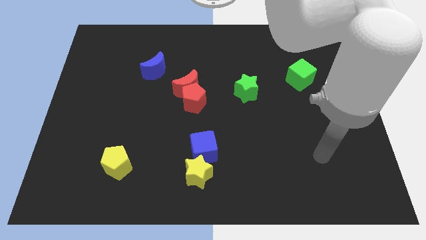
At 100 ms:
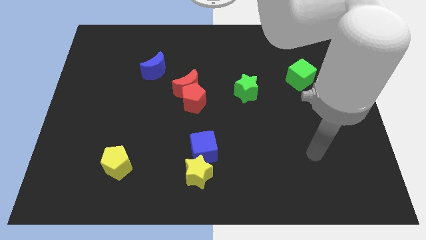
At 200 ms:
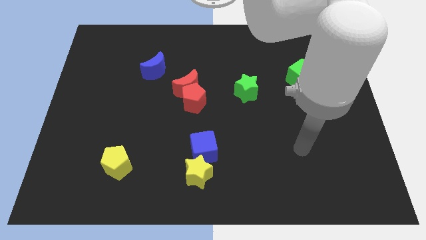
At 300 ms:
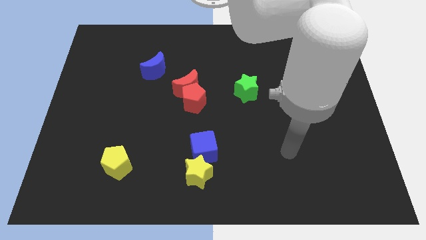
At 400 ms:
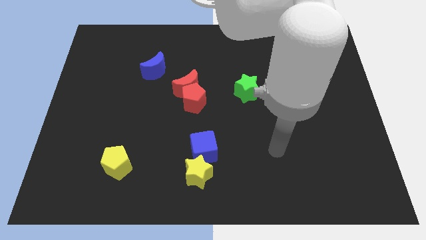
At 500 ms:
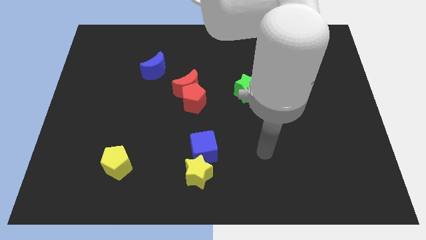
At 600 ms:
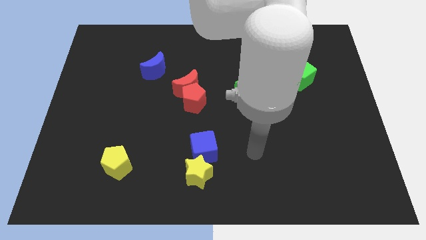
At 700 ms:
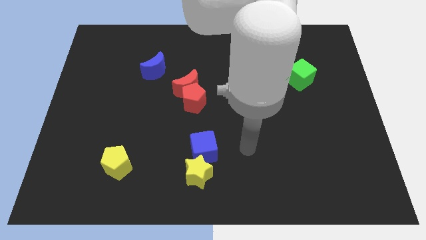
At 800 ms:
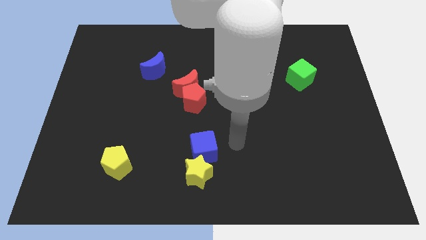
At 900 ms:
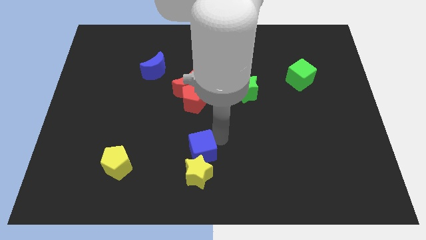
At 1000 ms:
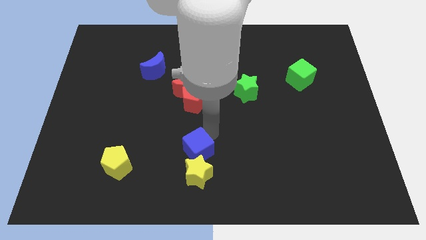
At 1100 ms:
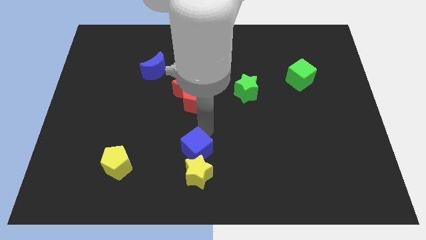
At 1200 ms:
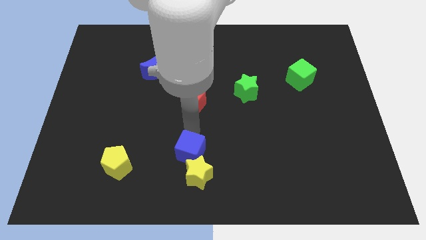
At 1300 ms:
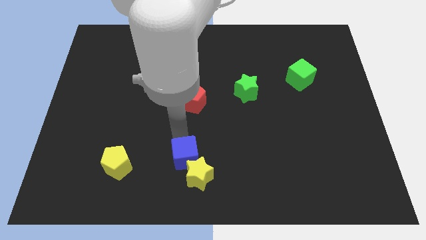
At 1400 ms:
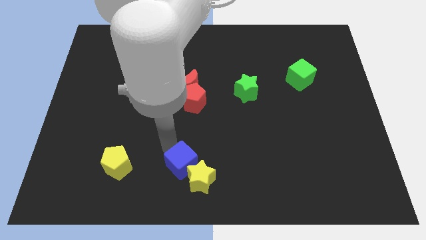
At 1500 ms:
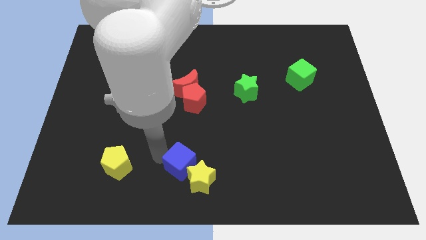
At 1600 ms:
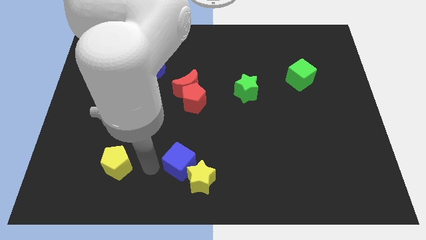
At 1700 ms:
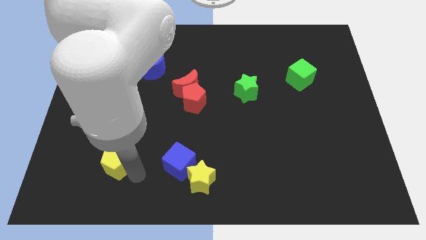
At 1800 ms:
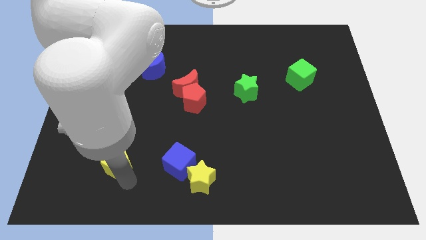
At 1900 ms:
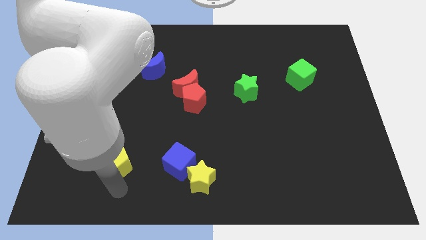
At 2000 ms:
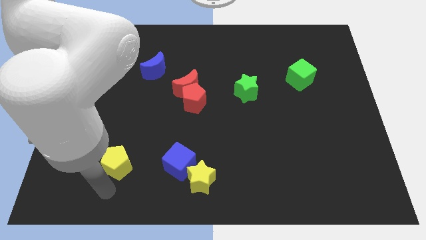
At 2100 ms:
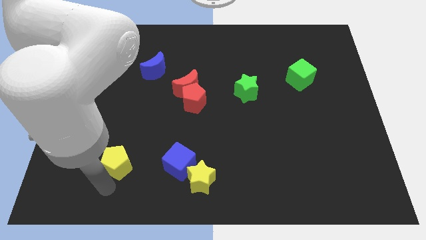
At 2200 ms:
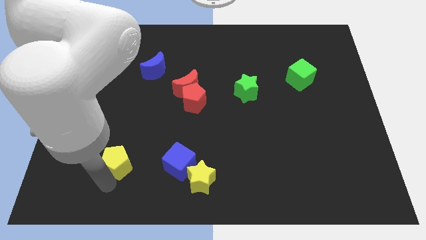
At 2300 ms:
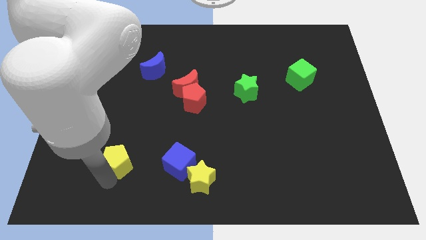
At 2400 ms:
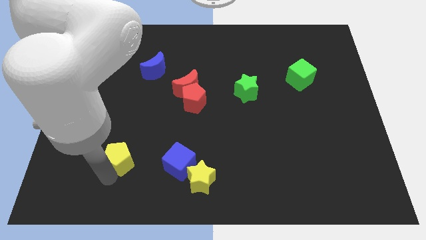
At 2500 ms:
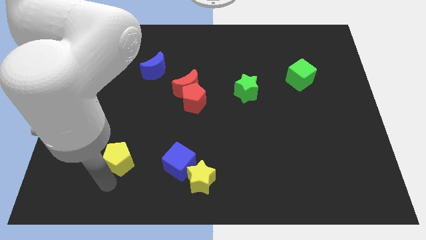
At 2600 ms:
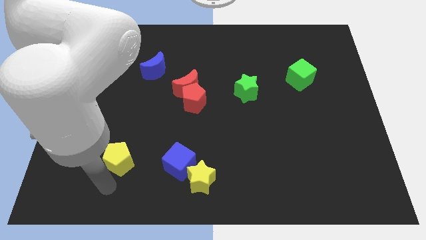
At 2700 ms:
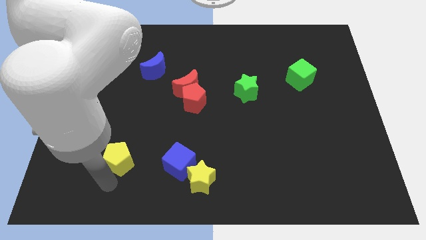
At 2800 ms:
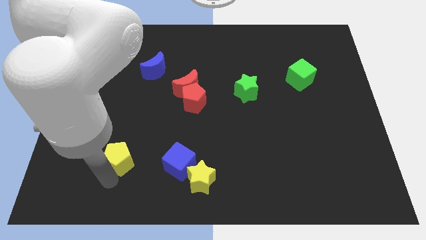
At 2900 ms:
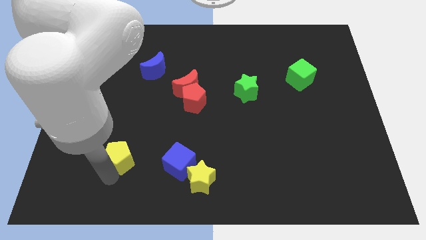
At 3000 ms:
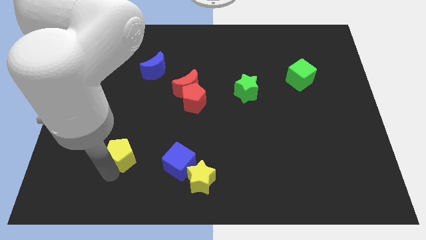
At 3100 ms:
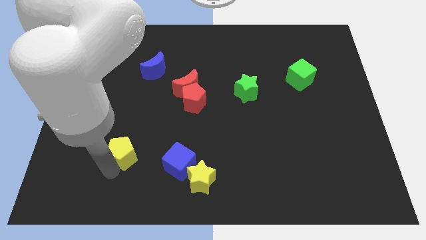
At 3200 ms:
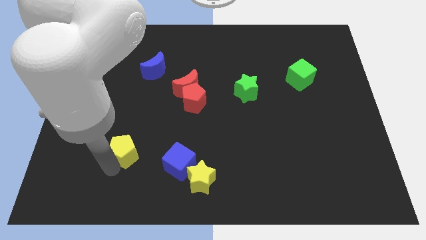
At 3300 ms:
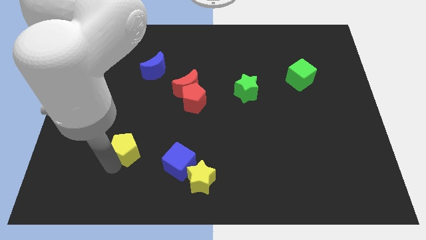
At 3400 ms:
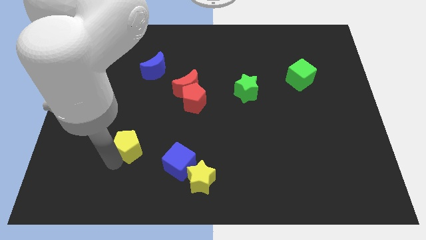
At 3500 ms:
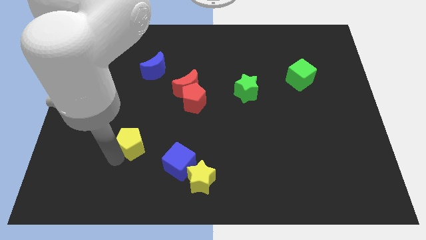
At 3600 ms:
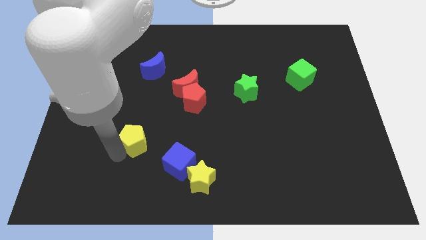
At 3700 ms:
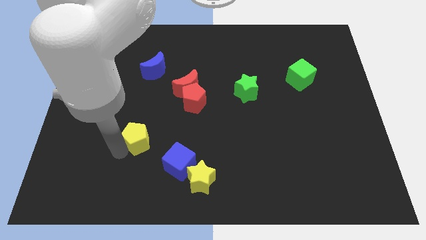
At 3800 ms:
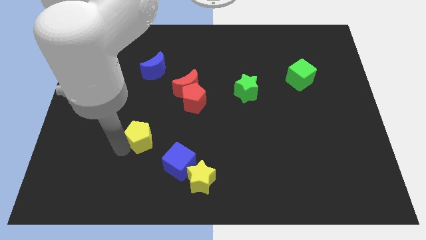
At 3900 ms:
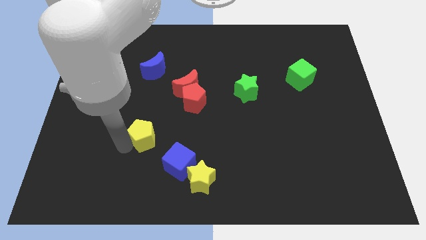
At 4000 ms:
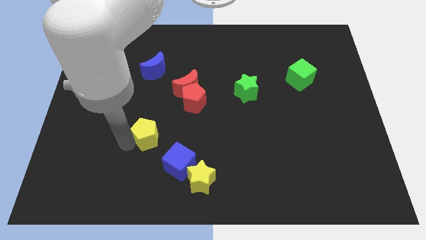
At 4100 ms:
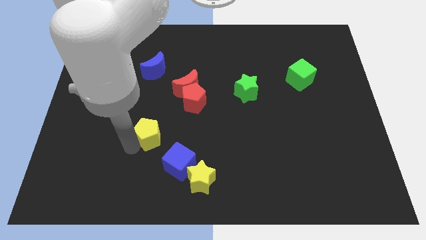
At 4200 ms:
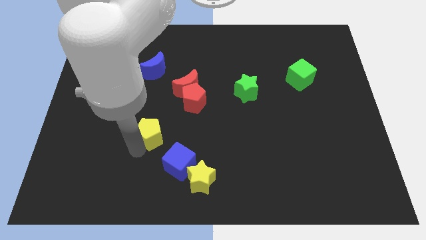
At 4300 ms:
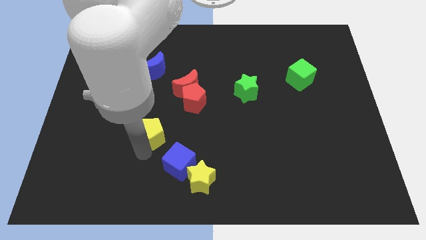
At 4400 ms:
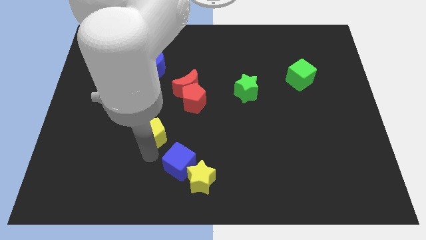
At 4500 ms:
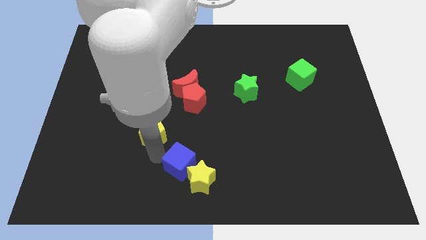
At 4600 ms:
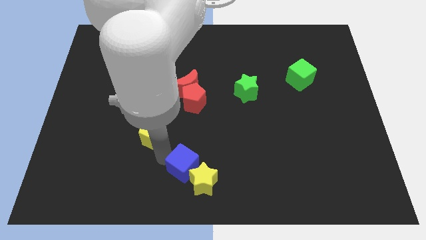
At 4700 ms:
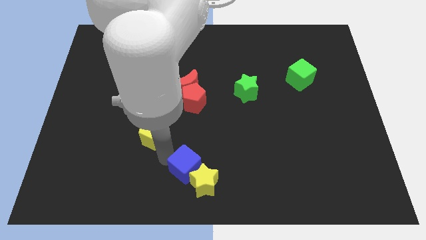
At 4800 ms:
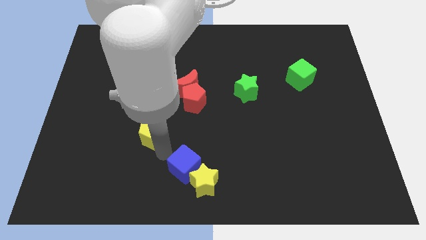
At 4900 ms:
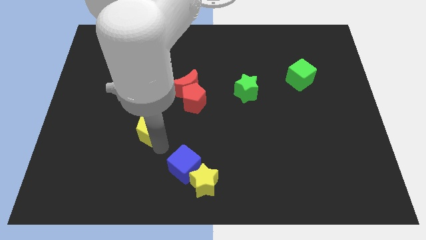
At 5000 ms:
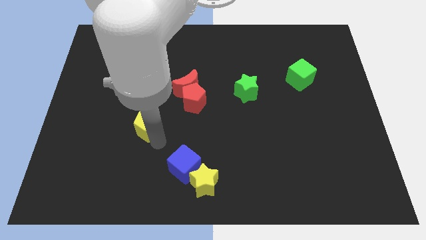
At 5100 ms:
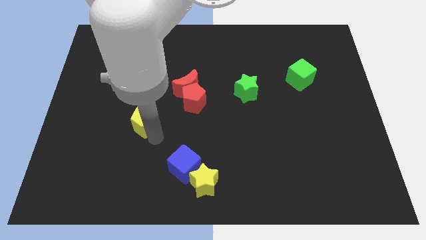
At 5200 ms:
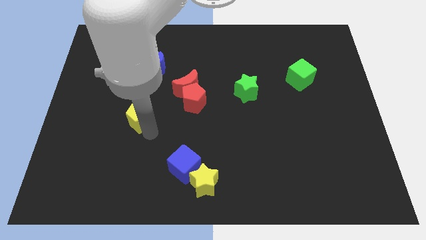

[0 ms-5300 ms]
slide the yellow pentagon to the bottom side of the blue moon

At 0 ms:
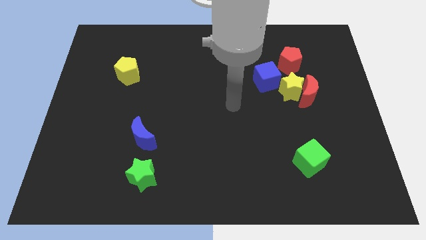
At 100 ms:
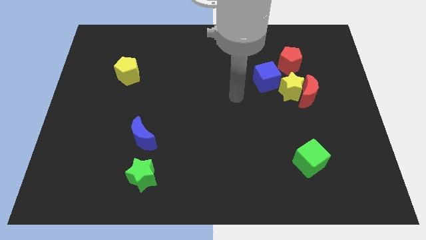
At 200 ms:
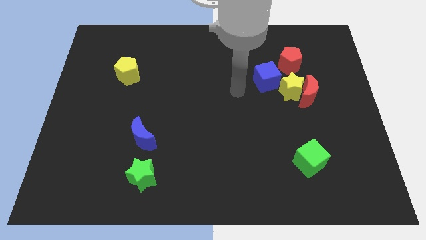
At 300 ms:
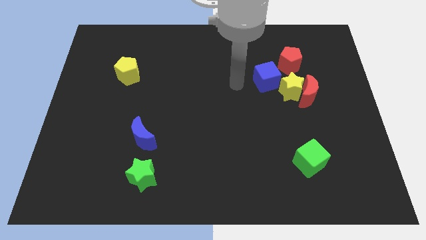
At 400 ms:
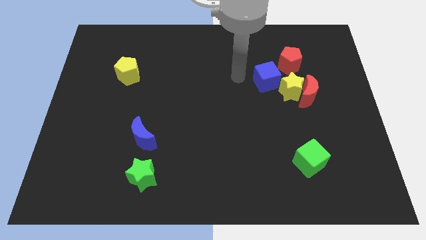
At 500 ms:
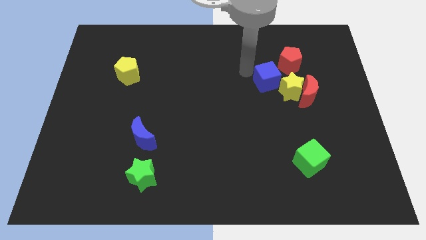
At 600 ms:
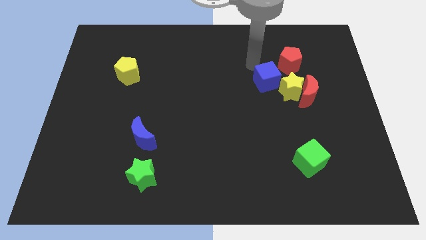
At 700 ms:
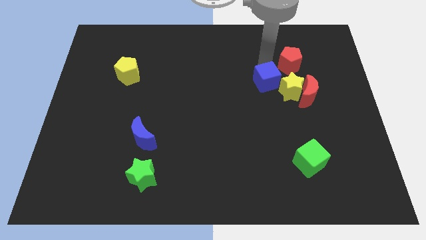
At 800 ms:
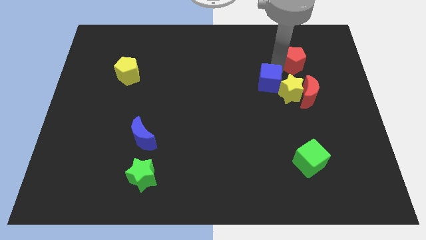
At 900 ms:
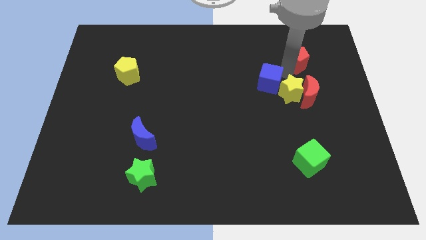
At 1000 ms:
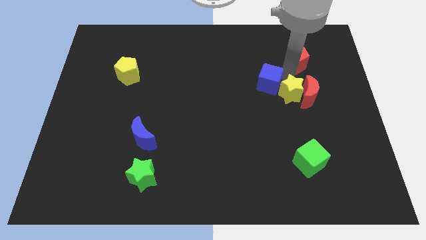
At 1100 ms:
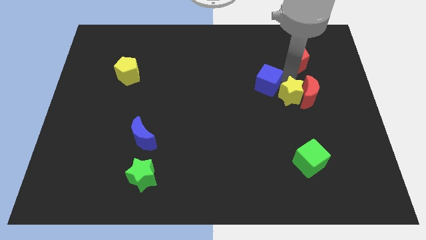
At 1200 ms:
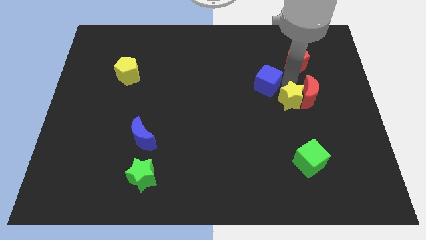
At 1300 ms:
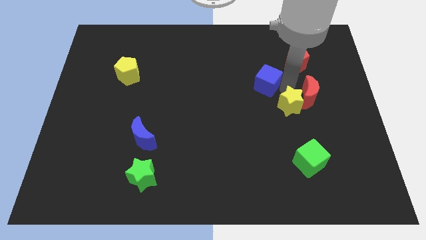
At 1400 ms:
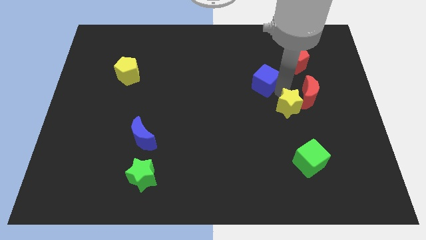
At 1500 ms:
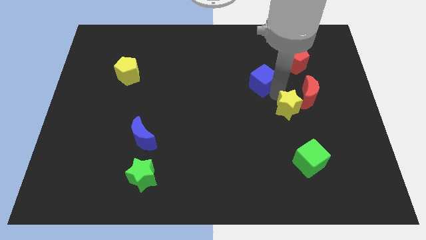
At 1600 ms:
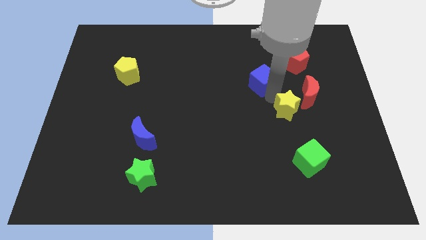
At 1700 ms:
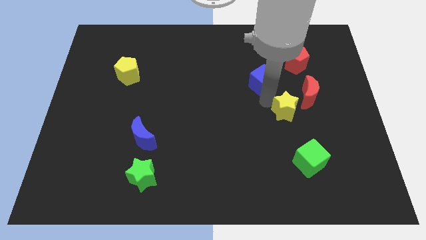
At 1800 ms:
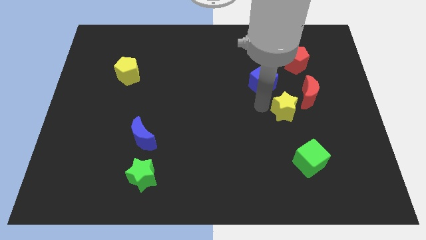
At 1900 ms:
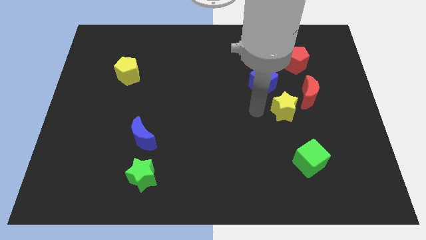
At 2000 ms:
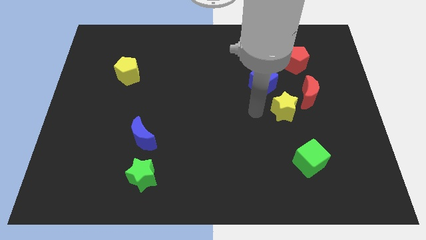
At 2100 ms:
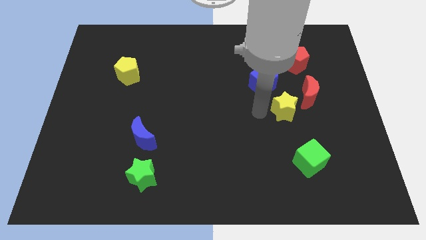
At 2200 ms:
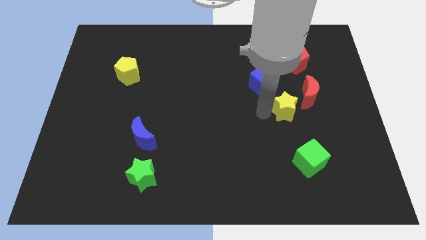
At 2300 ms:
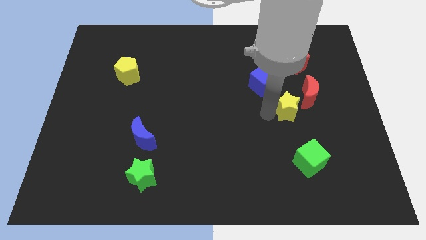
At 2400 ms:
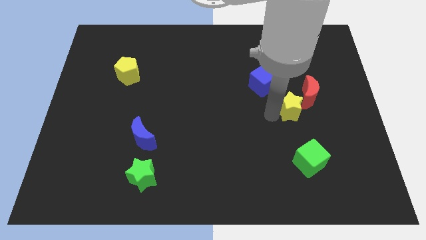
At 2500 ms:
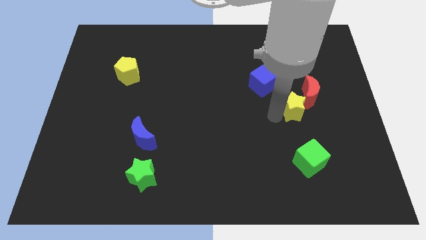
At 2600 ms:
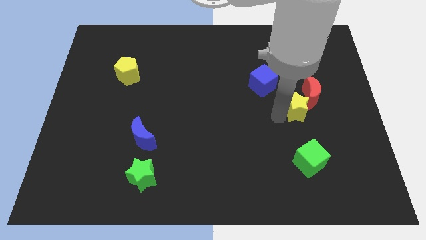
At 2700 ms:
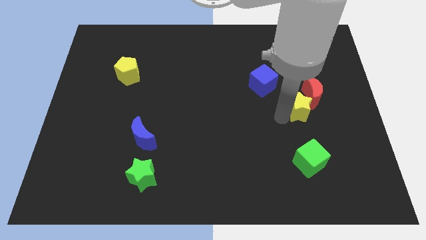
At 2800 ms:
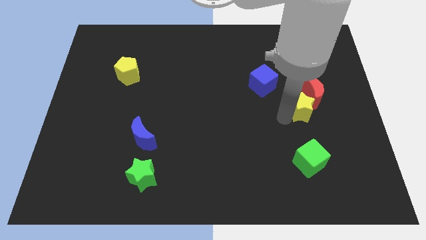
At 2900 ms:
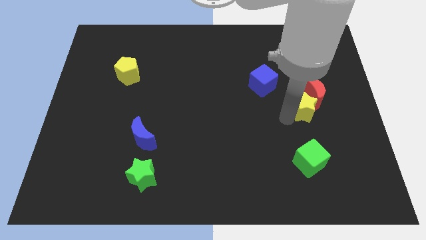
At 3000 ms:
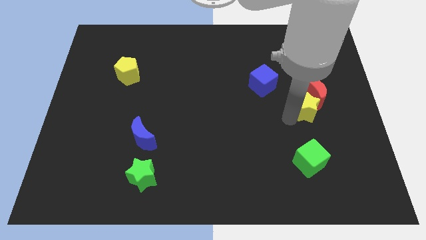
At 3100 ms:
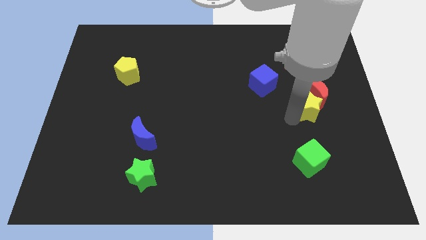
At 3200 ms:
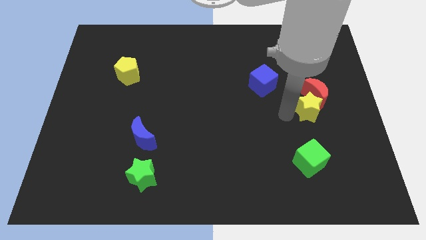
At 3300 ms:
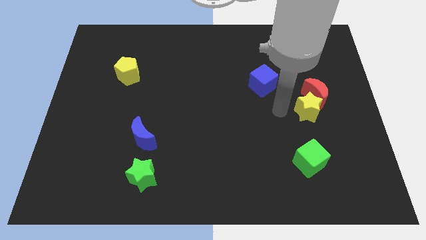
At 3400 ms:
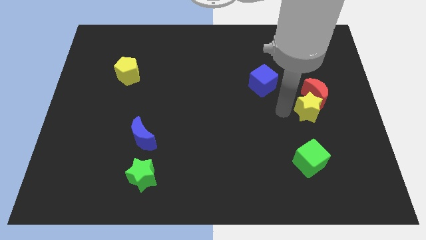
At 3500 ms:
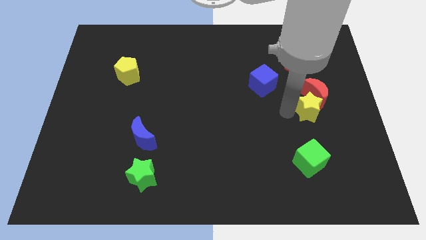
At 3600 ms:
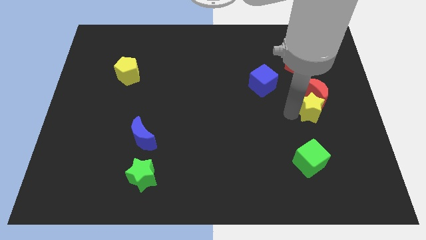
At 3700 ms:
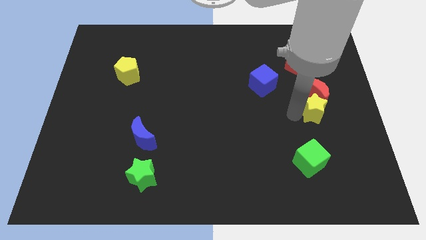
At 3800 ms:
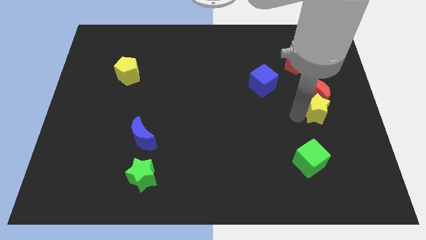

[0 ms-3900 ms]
slide the yellow star to the bottom right side of the red moon
